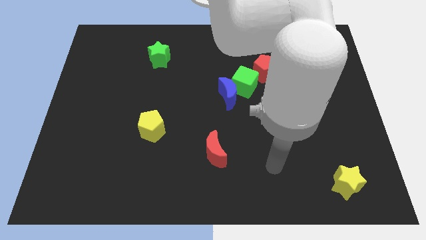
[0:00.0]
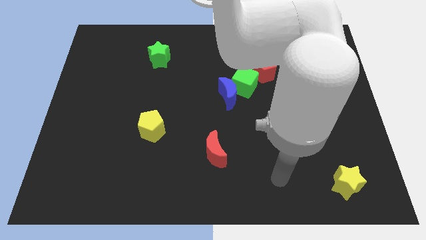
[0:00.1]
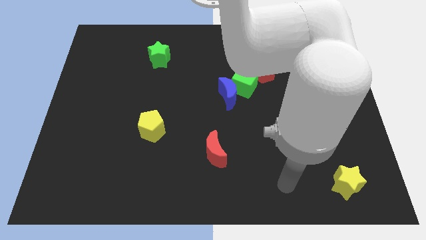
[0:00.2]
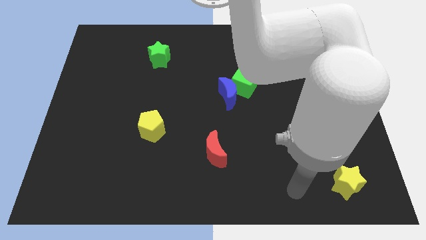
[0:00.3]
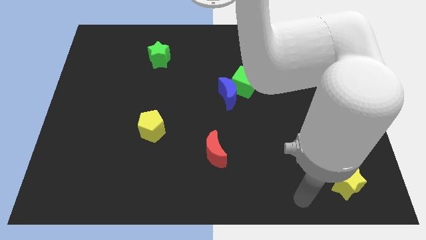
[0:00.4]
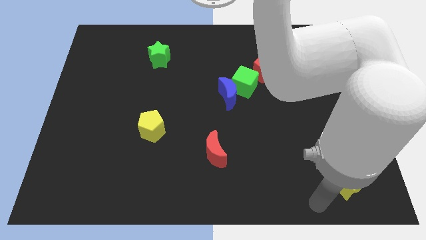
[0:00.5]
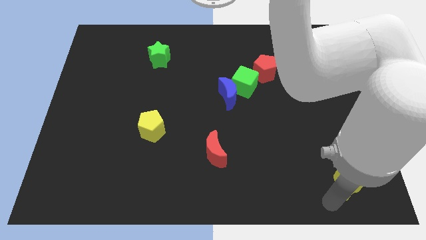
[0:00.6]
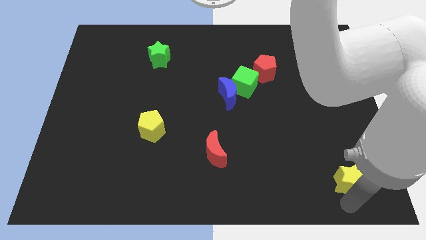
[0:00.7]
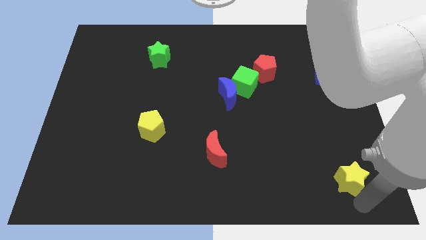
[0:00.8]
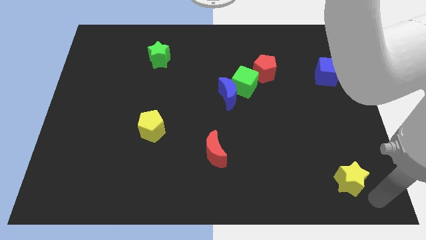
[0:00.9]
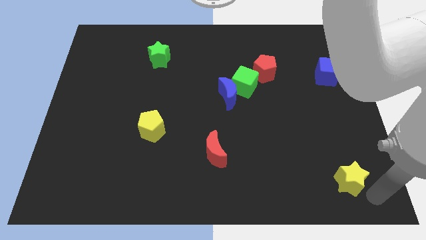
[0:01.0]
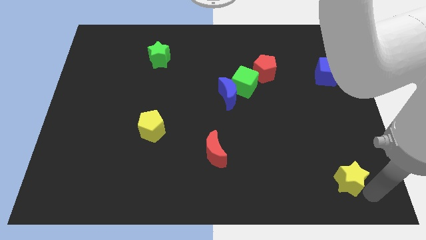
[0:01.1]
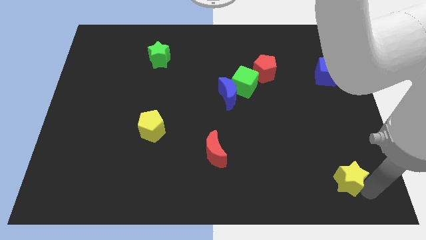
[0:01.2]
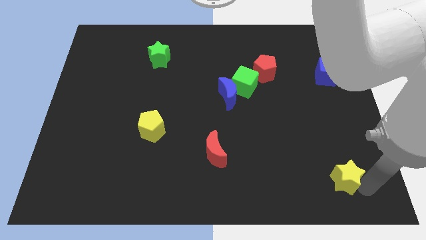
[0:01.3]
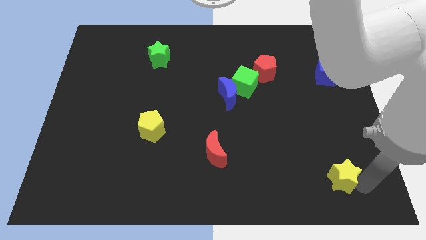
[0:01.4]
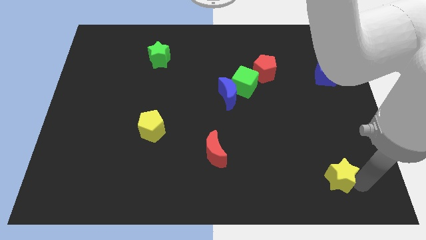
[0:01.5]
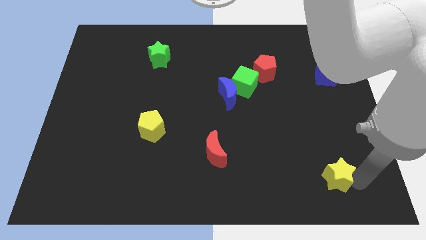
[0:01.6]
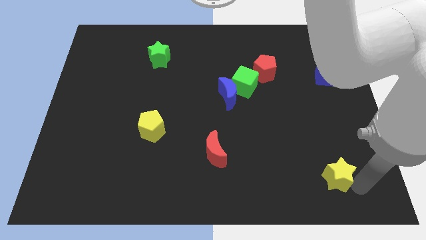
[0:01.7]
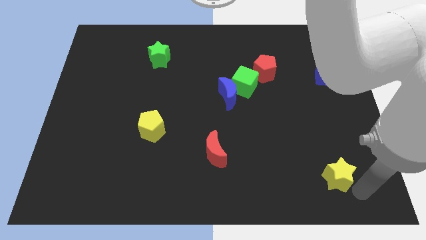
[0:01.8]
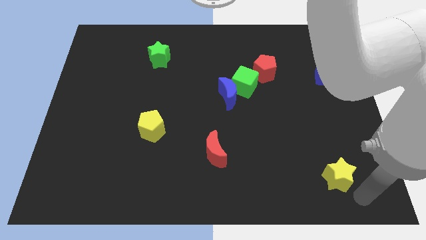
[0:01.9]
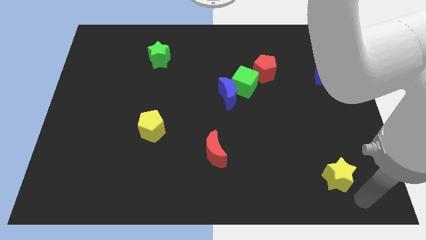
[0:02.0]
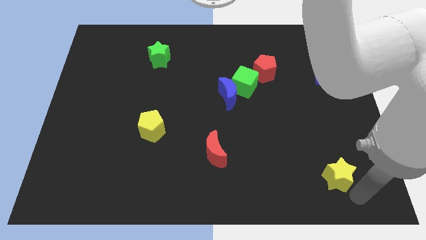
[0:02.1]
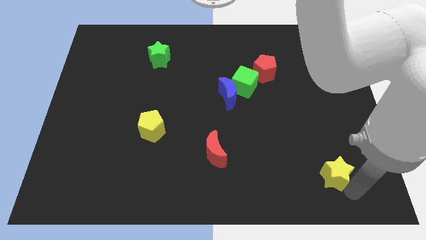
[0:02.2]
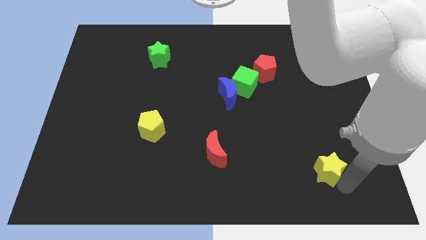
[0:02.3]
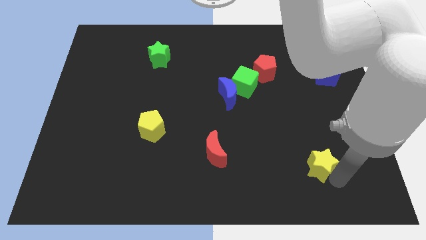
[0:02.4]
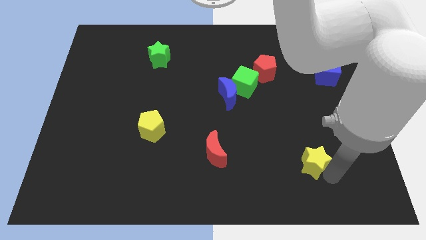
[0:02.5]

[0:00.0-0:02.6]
slightly move the yellow star up and left diagonally

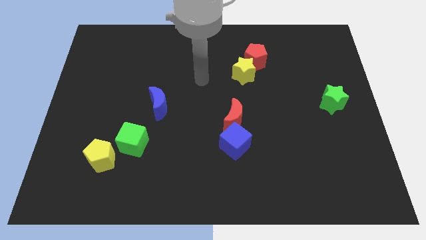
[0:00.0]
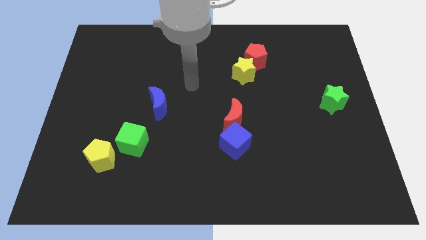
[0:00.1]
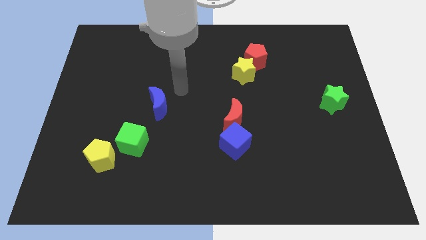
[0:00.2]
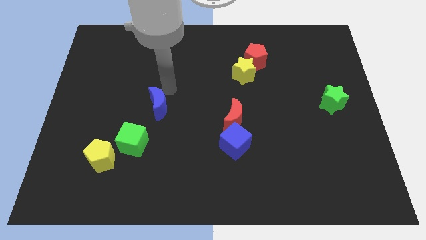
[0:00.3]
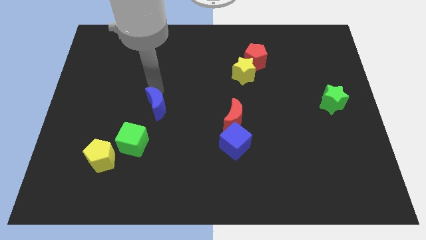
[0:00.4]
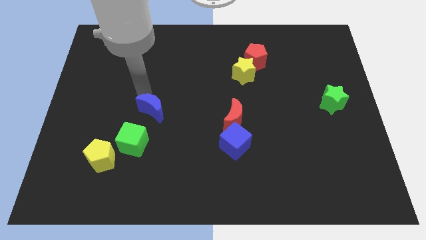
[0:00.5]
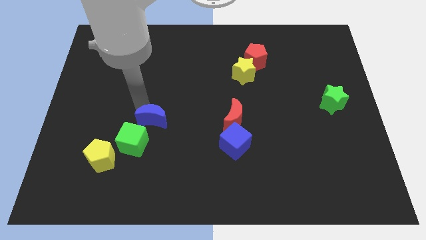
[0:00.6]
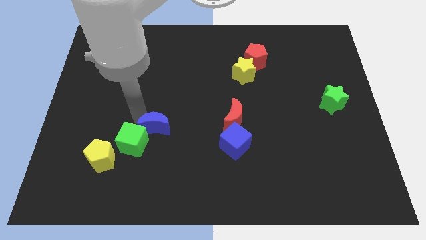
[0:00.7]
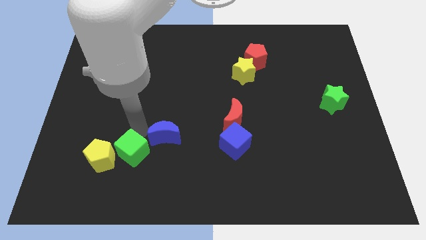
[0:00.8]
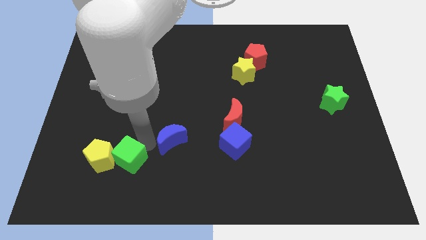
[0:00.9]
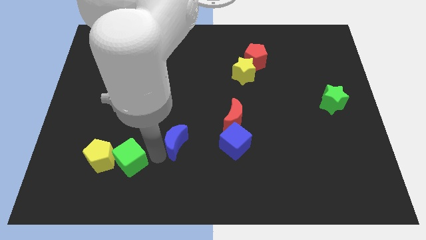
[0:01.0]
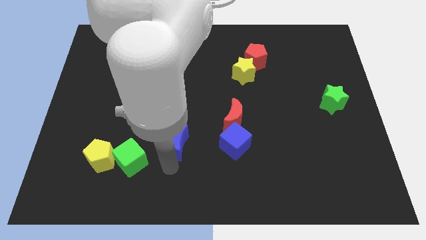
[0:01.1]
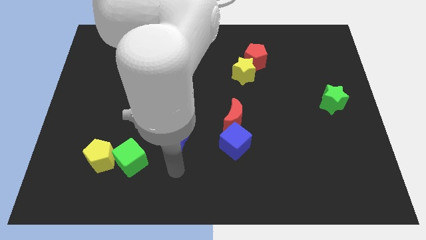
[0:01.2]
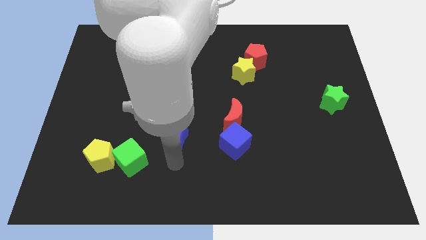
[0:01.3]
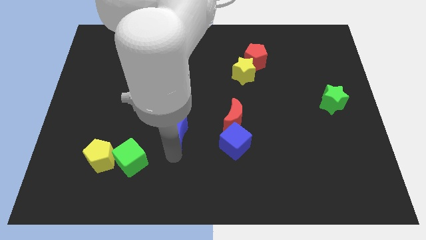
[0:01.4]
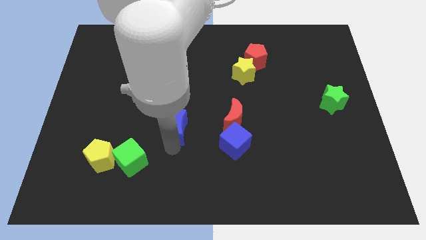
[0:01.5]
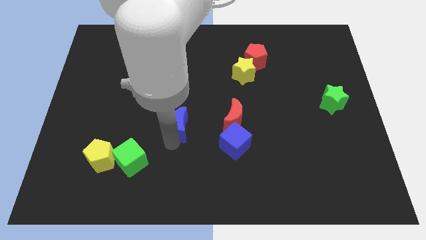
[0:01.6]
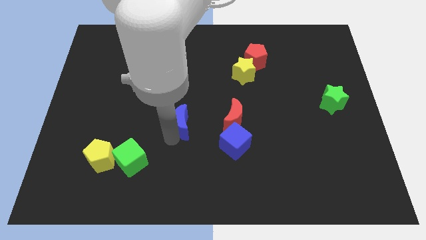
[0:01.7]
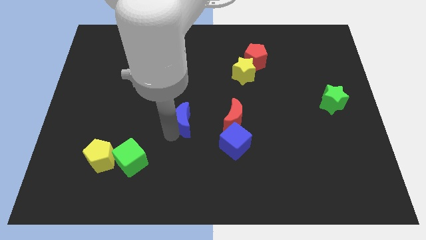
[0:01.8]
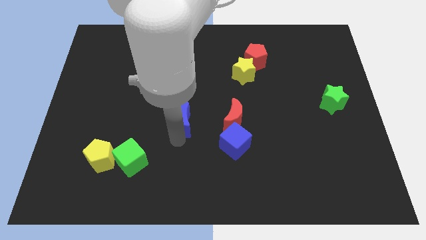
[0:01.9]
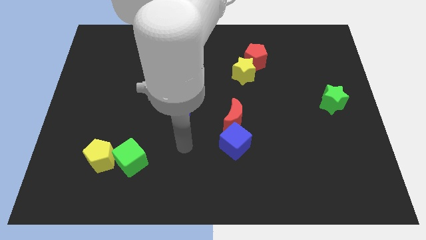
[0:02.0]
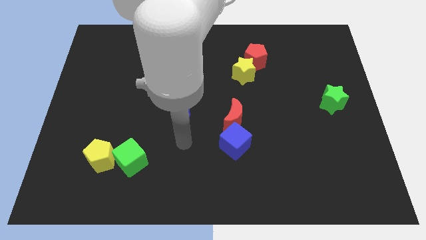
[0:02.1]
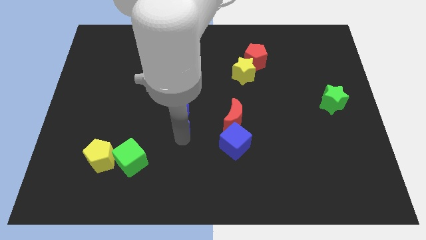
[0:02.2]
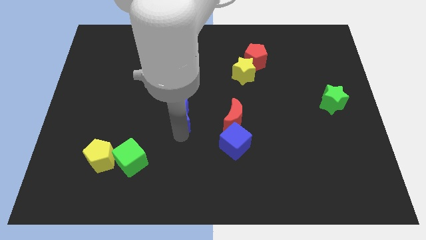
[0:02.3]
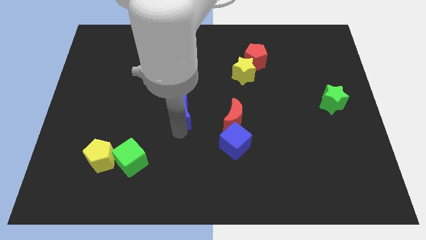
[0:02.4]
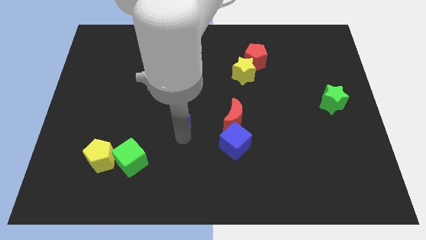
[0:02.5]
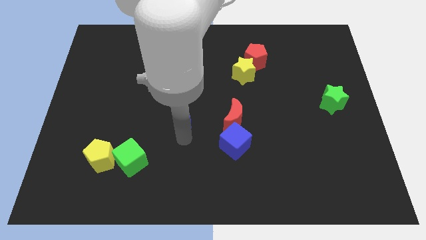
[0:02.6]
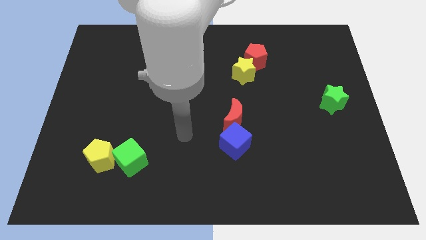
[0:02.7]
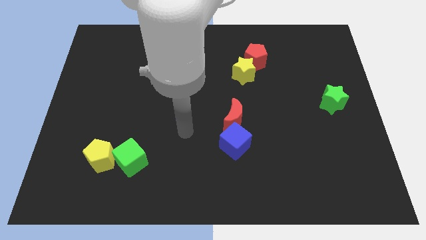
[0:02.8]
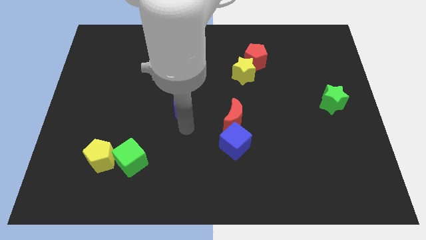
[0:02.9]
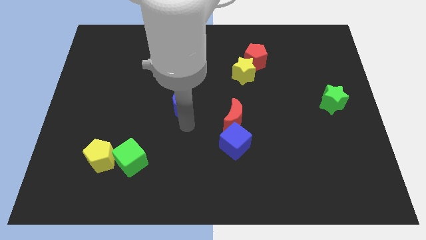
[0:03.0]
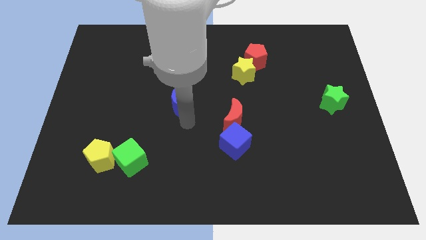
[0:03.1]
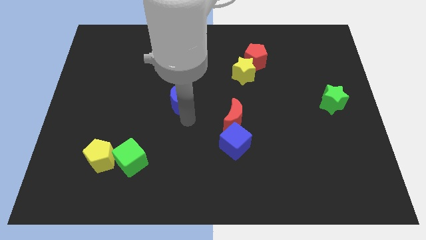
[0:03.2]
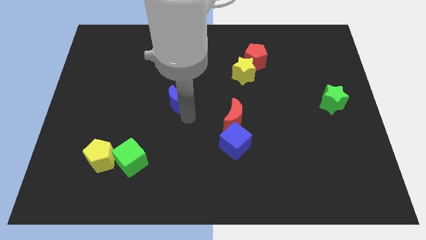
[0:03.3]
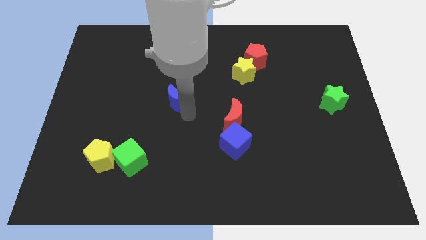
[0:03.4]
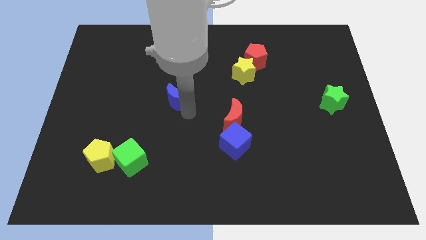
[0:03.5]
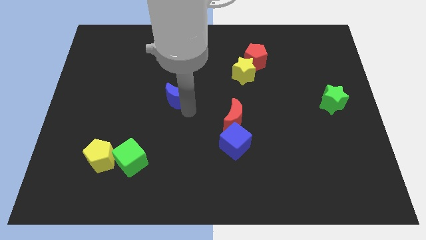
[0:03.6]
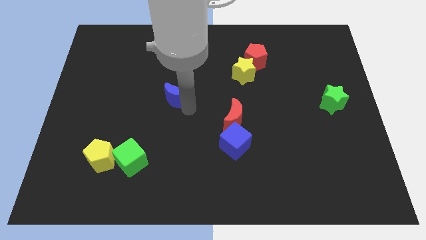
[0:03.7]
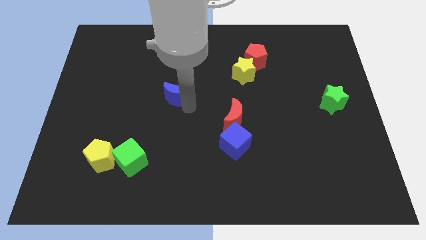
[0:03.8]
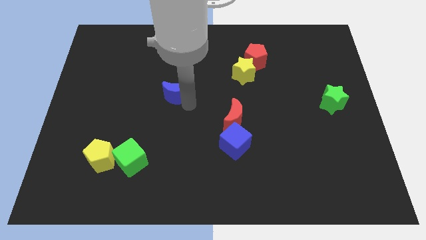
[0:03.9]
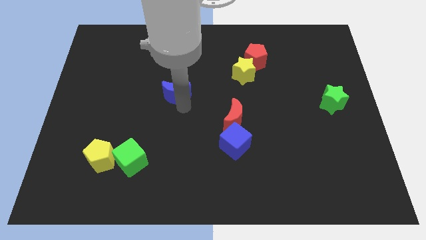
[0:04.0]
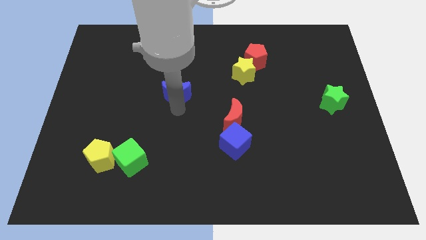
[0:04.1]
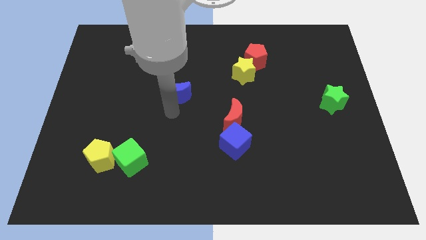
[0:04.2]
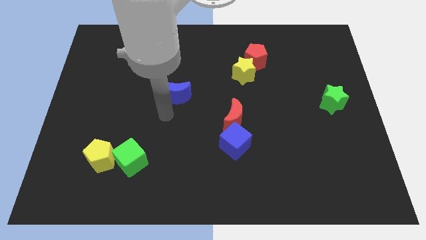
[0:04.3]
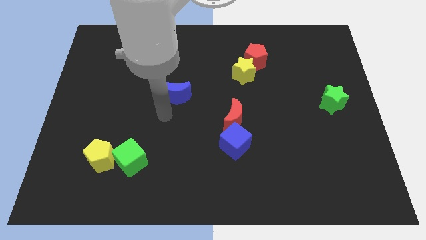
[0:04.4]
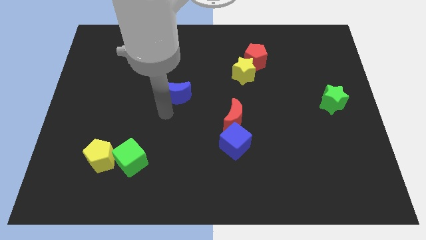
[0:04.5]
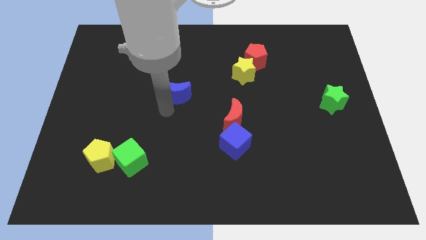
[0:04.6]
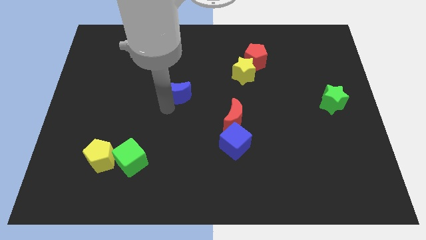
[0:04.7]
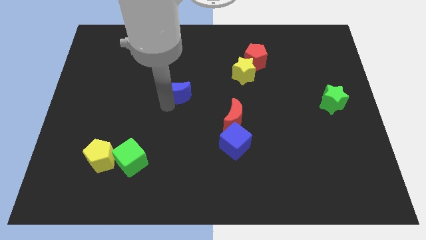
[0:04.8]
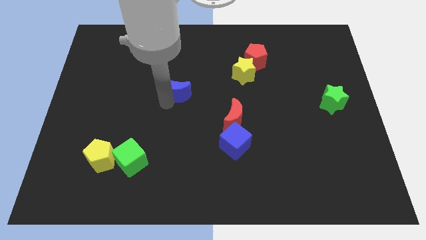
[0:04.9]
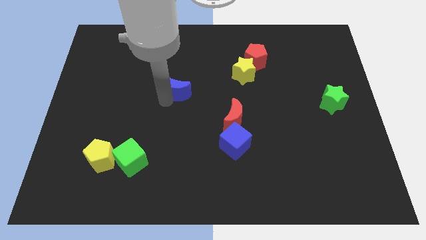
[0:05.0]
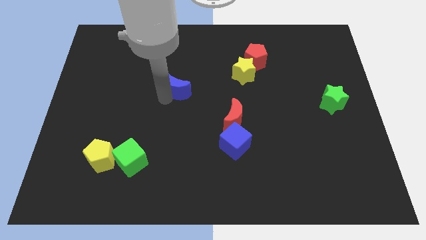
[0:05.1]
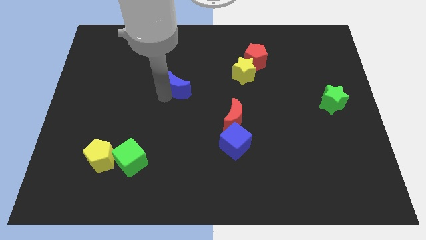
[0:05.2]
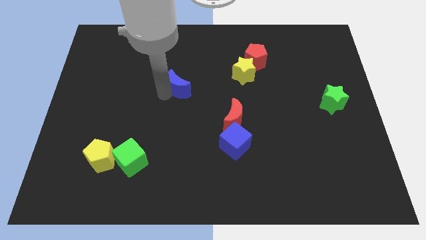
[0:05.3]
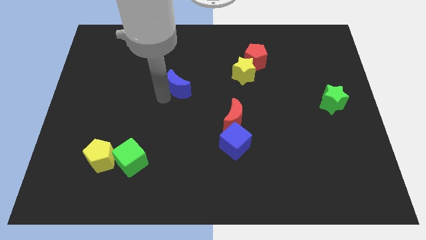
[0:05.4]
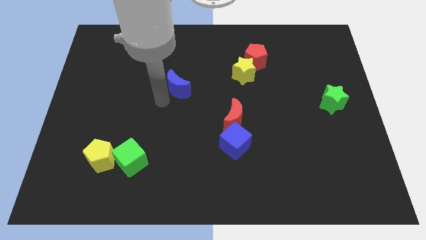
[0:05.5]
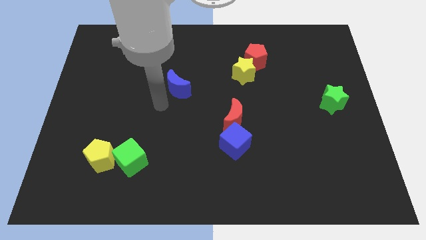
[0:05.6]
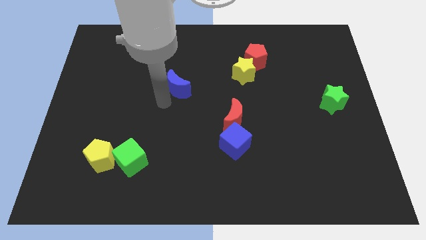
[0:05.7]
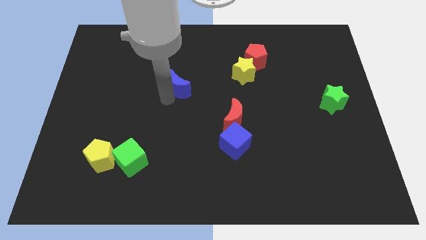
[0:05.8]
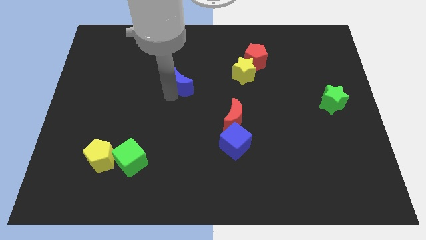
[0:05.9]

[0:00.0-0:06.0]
move the blue moon upwards and right diagonally a little
